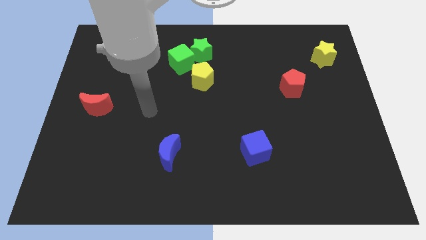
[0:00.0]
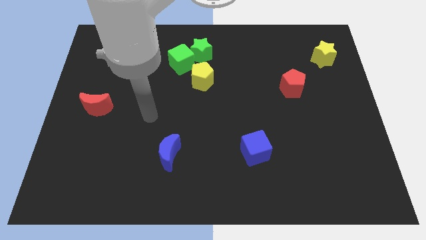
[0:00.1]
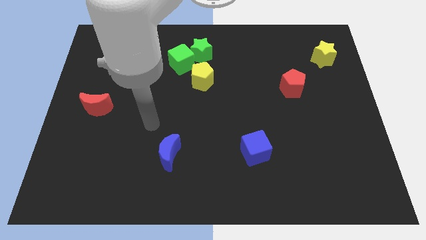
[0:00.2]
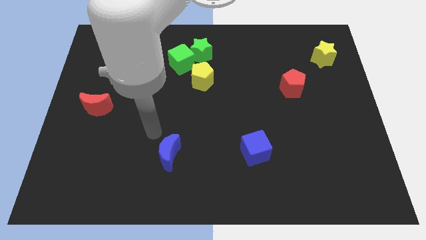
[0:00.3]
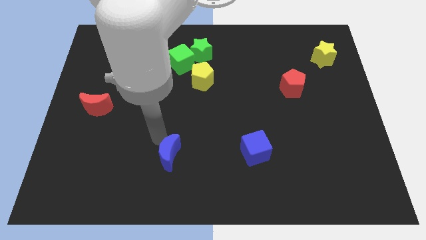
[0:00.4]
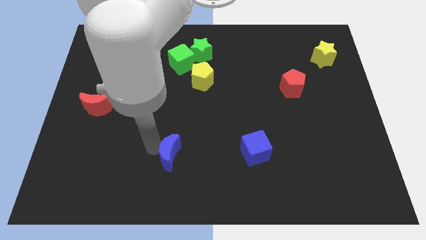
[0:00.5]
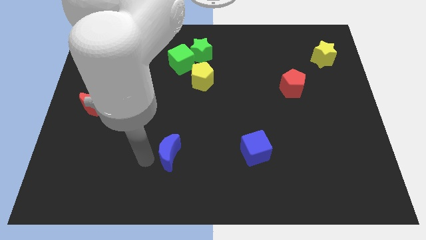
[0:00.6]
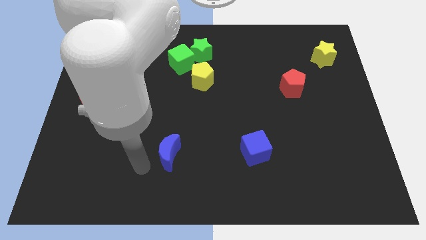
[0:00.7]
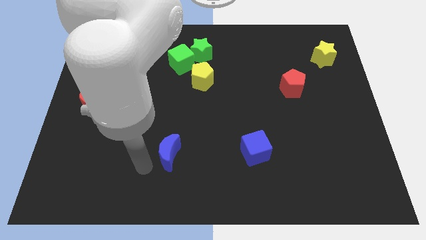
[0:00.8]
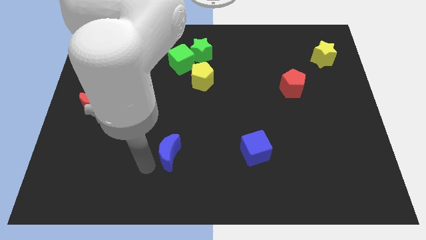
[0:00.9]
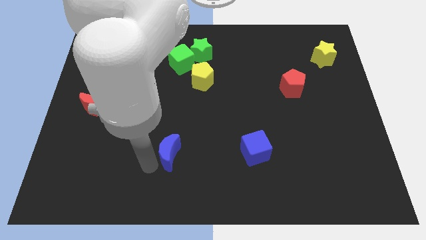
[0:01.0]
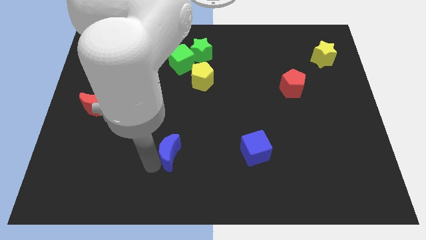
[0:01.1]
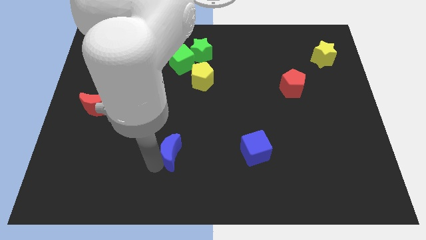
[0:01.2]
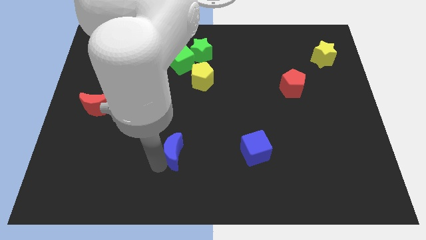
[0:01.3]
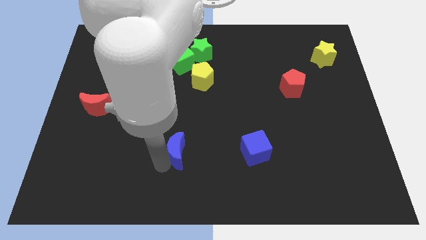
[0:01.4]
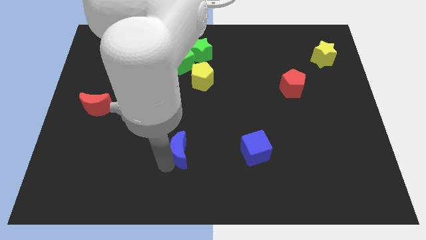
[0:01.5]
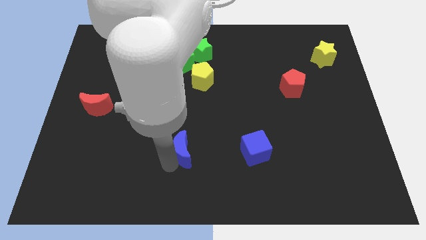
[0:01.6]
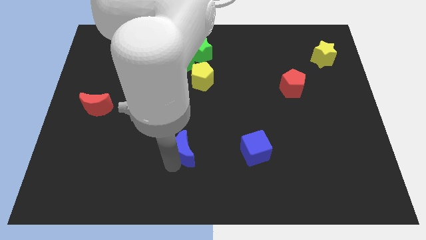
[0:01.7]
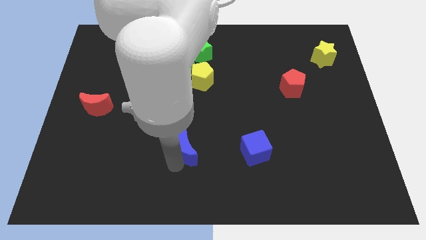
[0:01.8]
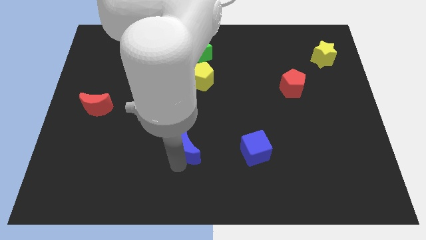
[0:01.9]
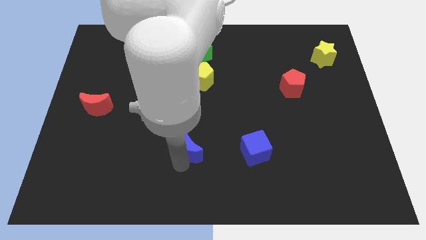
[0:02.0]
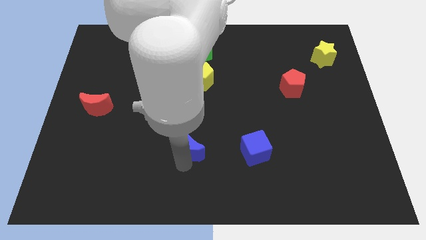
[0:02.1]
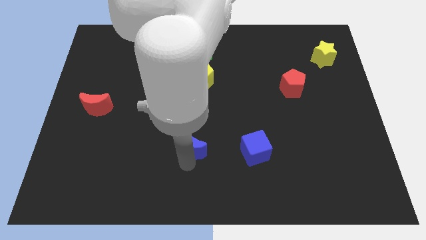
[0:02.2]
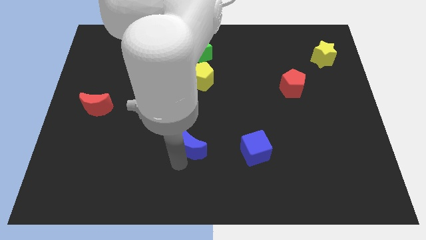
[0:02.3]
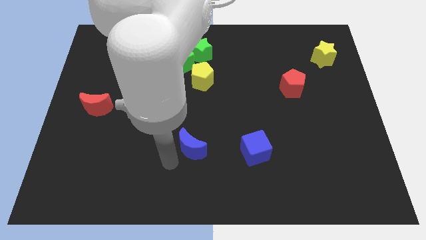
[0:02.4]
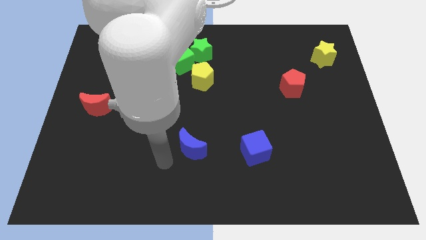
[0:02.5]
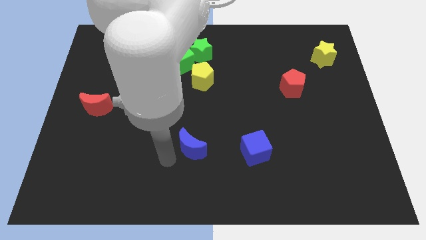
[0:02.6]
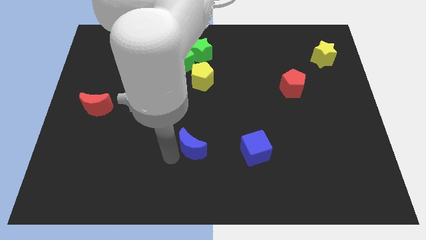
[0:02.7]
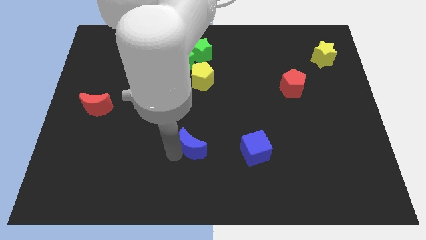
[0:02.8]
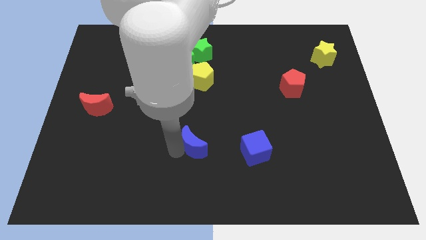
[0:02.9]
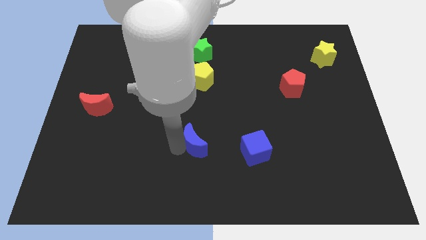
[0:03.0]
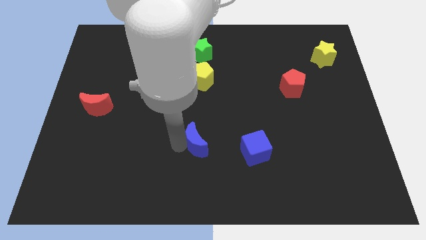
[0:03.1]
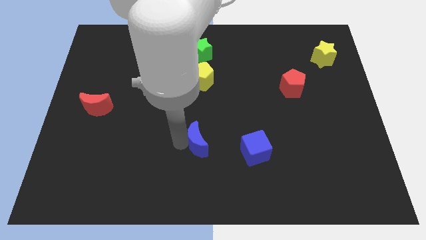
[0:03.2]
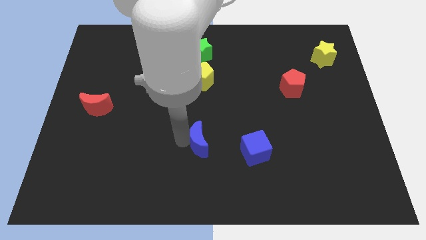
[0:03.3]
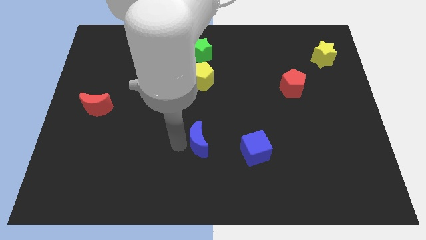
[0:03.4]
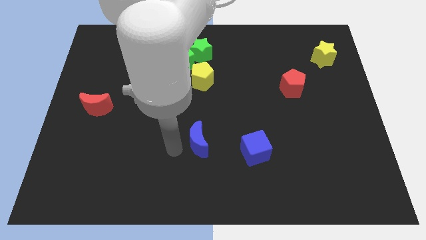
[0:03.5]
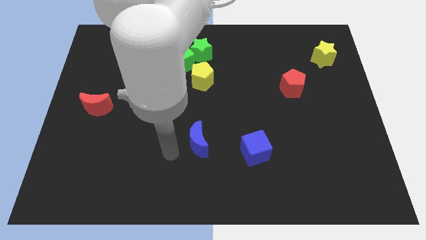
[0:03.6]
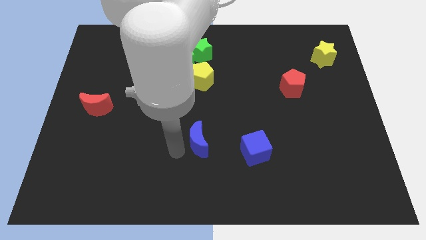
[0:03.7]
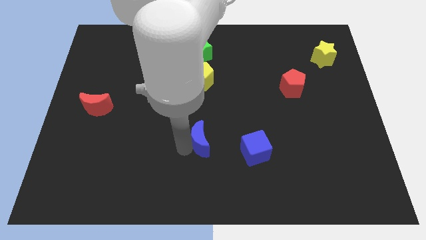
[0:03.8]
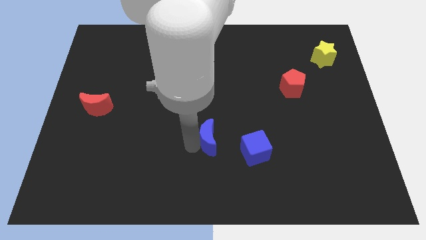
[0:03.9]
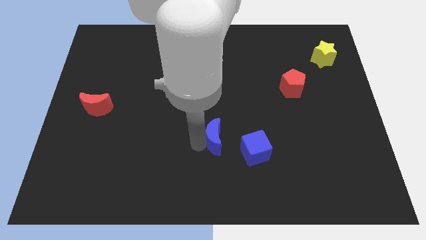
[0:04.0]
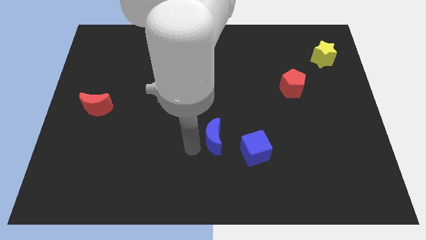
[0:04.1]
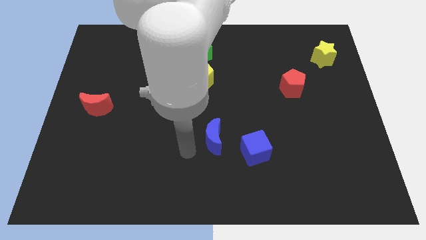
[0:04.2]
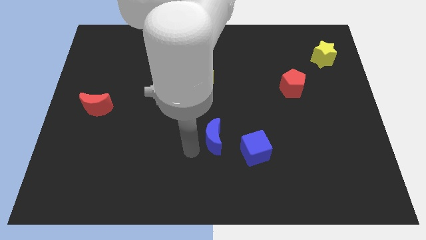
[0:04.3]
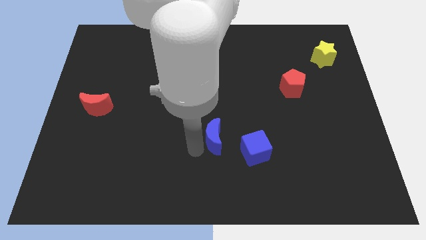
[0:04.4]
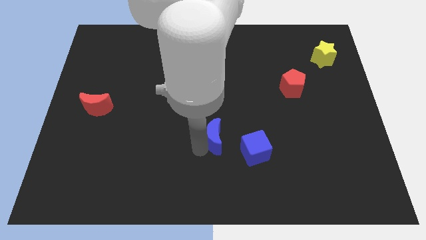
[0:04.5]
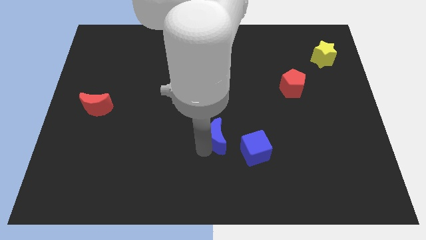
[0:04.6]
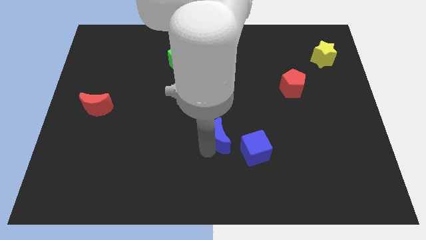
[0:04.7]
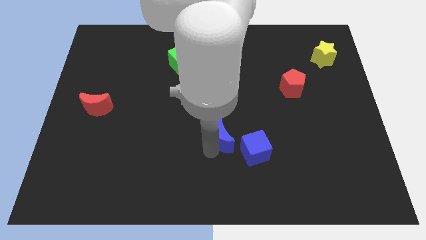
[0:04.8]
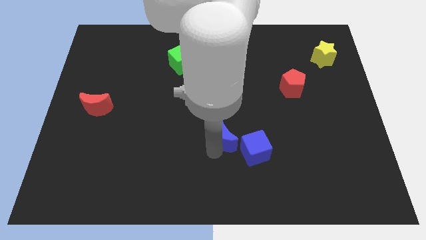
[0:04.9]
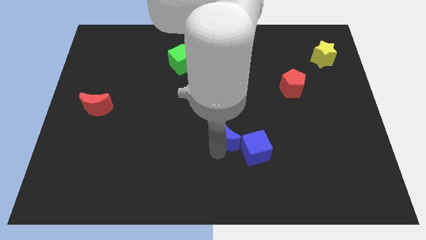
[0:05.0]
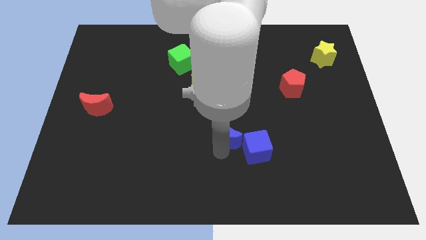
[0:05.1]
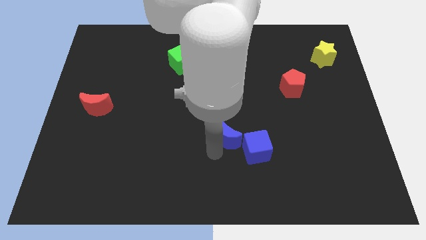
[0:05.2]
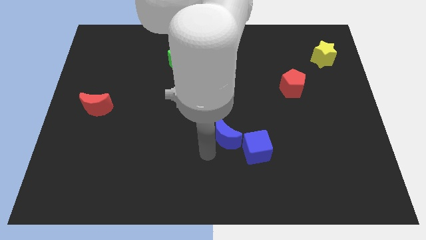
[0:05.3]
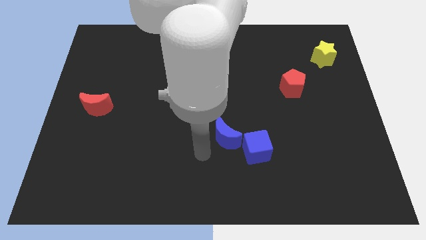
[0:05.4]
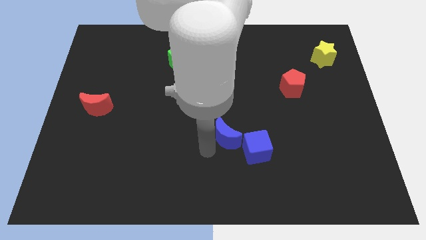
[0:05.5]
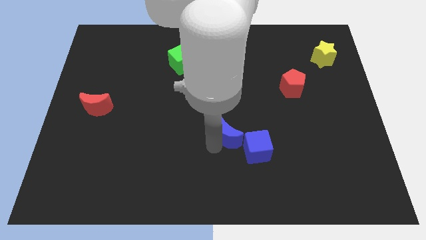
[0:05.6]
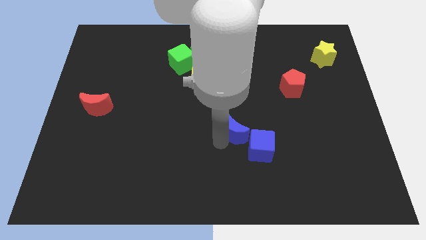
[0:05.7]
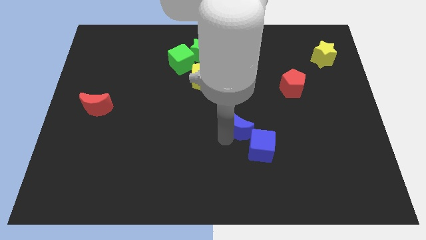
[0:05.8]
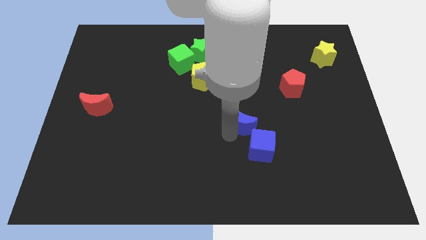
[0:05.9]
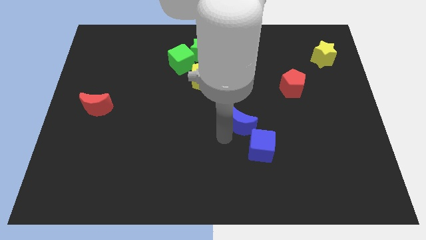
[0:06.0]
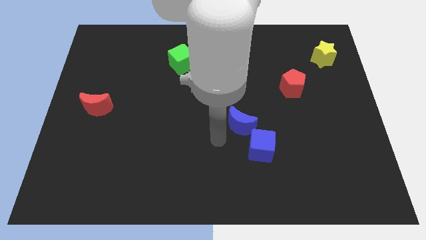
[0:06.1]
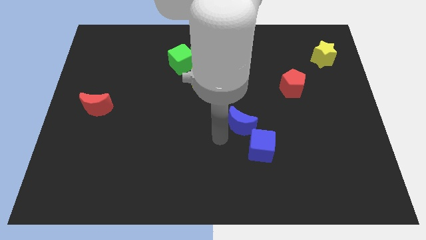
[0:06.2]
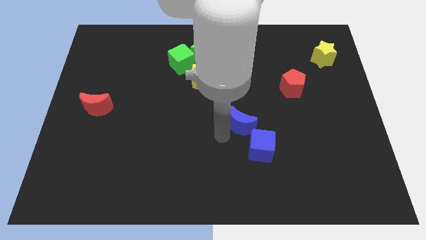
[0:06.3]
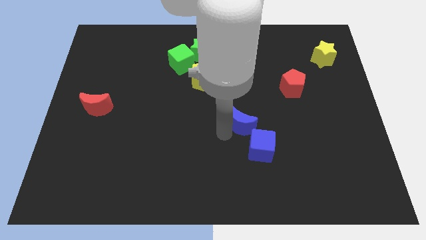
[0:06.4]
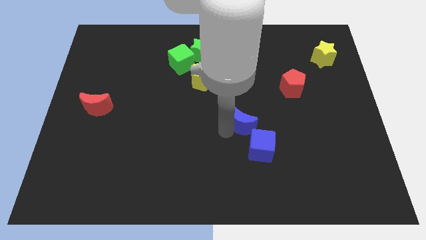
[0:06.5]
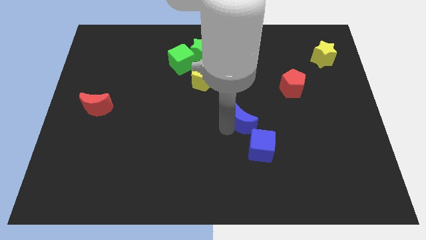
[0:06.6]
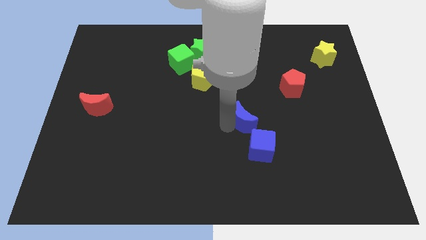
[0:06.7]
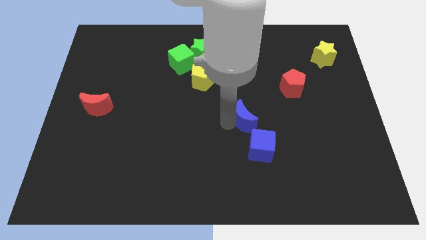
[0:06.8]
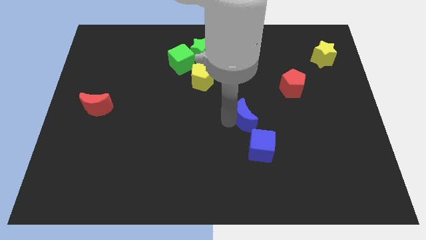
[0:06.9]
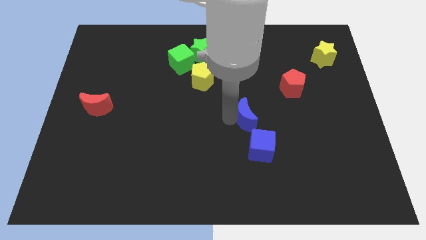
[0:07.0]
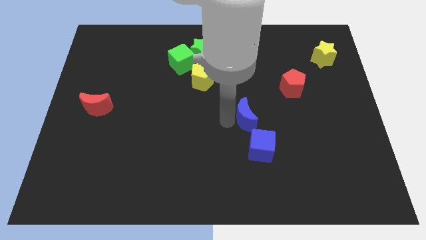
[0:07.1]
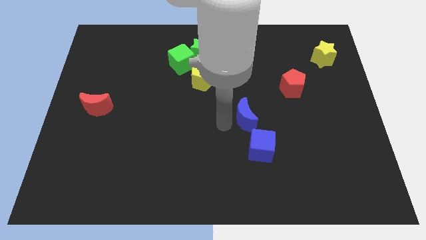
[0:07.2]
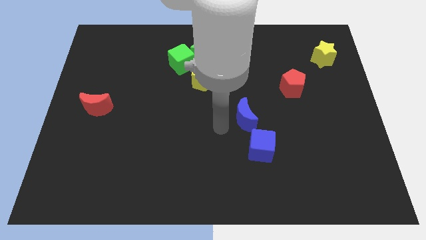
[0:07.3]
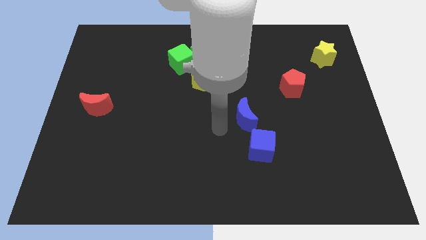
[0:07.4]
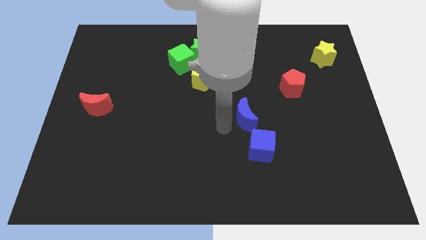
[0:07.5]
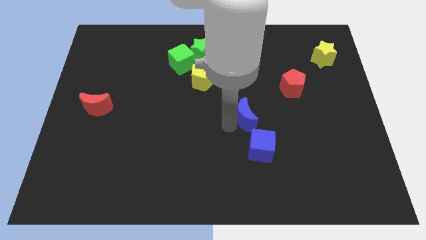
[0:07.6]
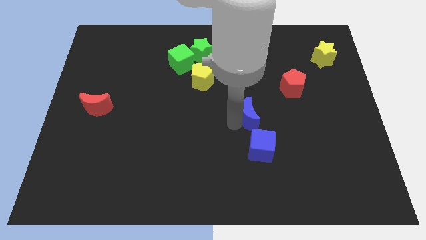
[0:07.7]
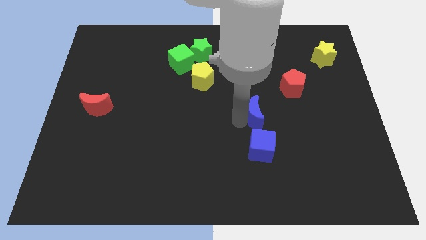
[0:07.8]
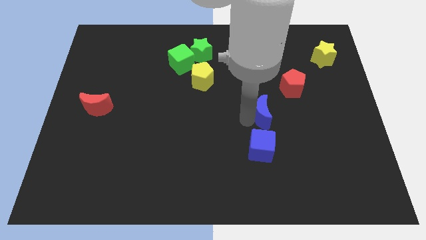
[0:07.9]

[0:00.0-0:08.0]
move the blue moon to the bottom left side of the red pentagon
